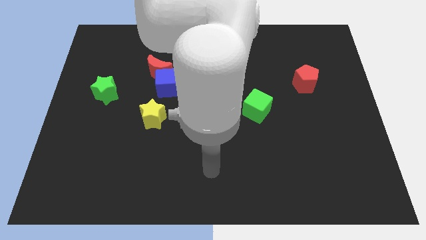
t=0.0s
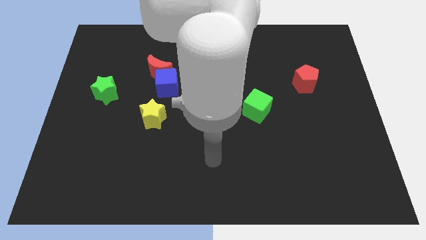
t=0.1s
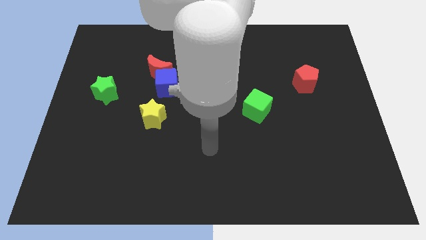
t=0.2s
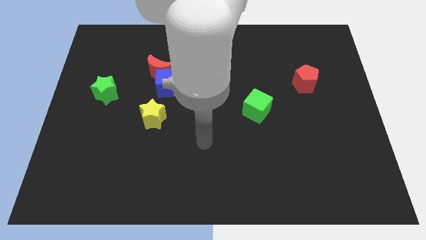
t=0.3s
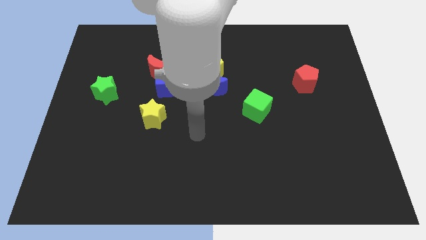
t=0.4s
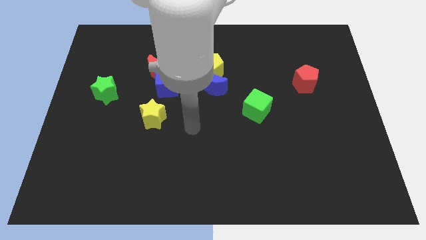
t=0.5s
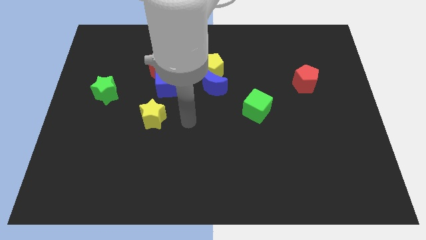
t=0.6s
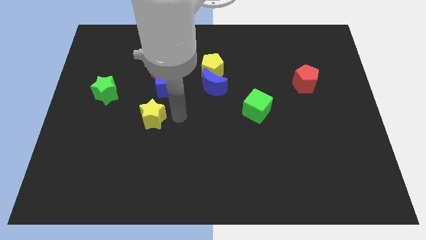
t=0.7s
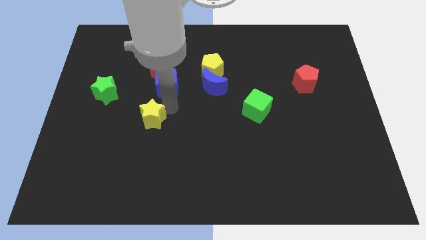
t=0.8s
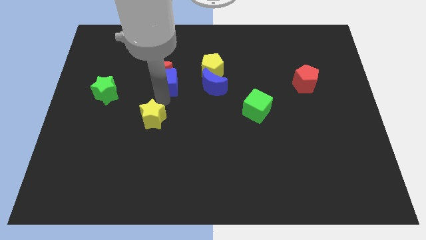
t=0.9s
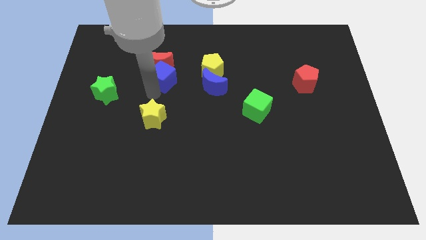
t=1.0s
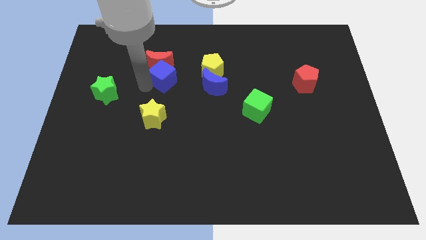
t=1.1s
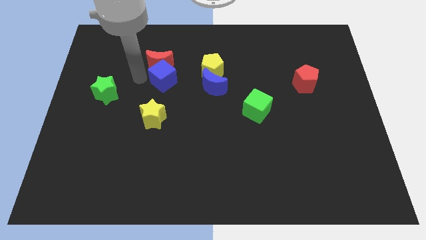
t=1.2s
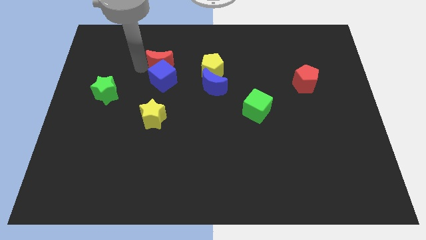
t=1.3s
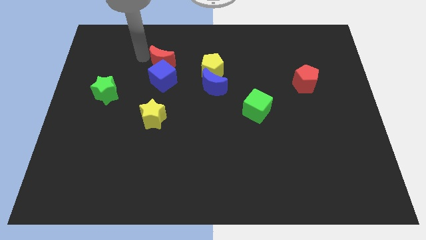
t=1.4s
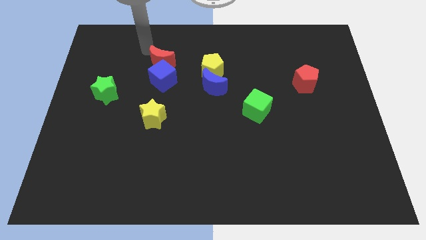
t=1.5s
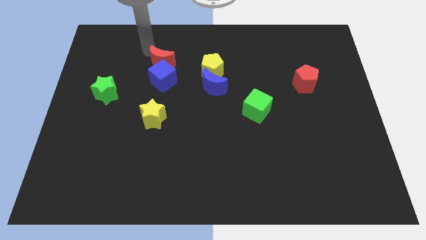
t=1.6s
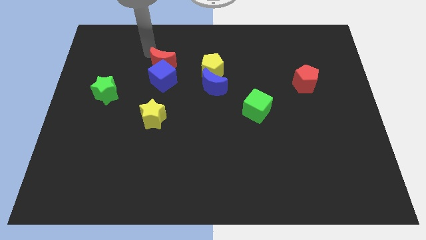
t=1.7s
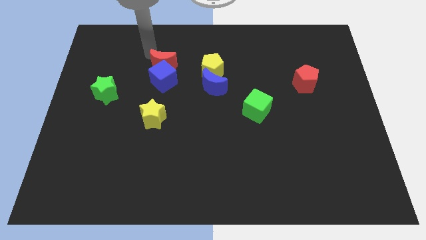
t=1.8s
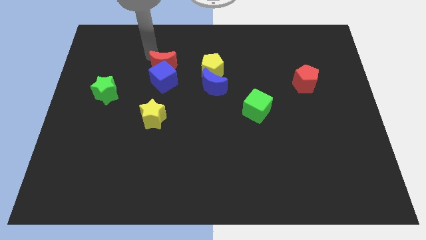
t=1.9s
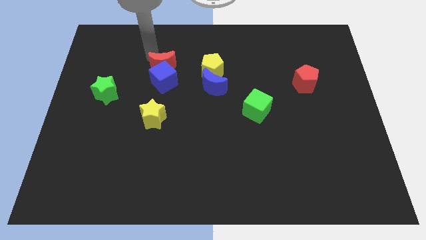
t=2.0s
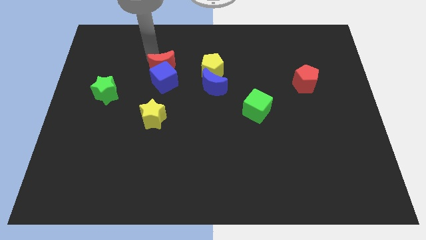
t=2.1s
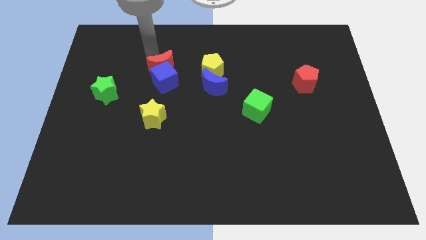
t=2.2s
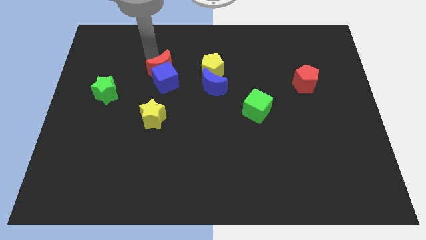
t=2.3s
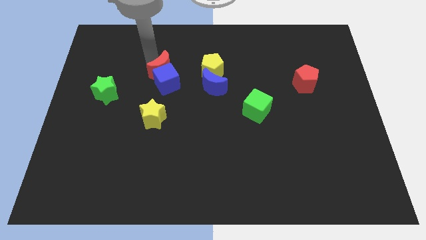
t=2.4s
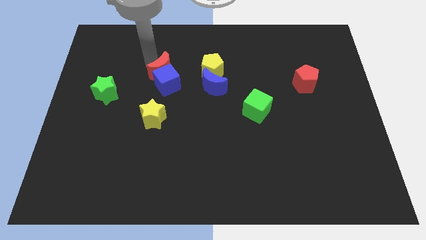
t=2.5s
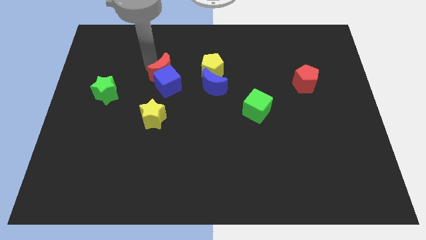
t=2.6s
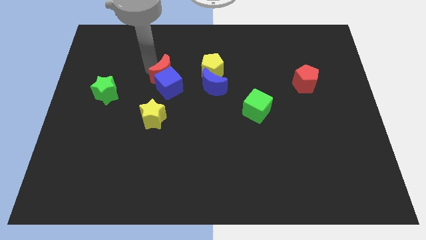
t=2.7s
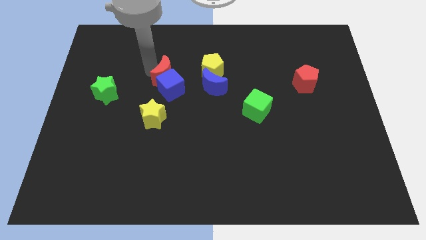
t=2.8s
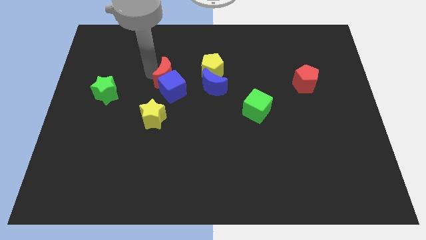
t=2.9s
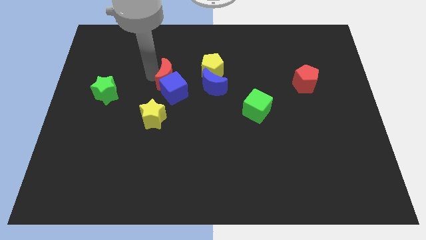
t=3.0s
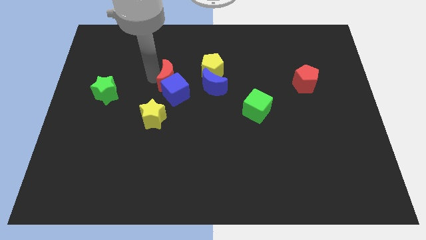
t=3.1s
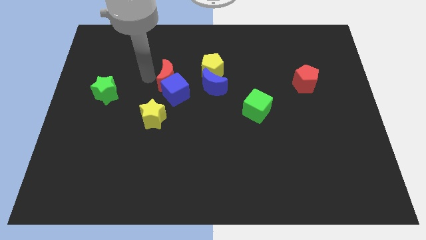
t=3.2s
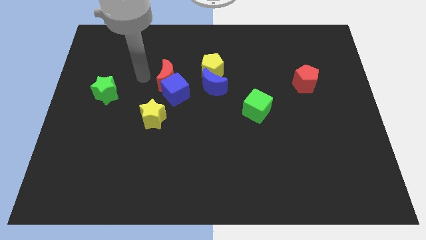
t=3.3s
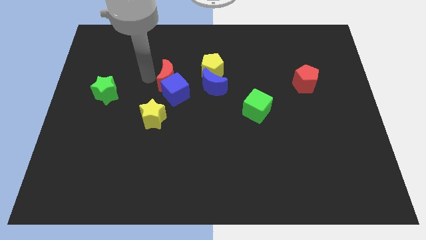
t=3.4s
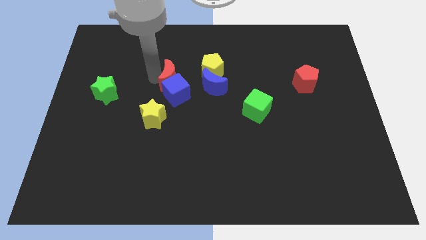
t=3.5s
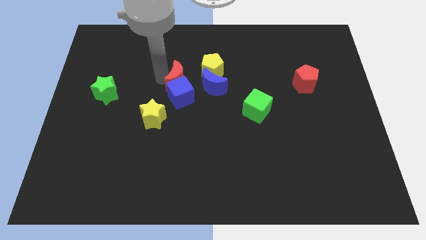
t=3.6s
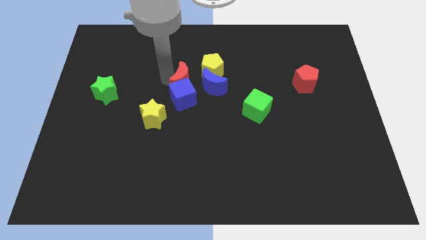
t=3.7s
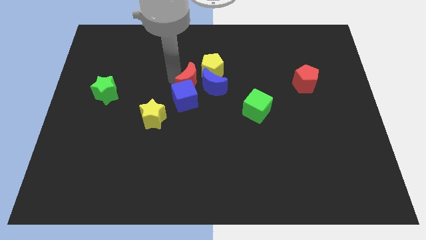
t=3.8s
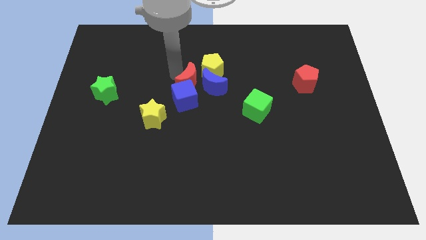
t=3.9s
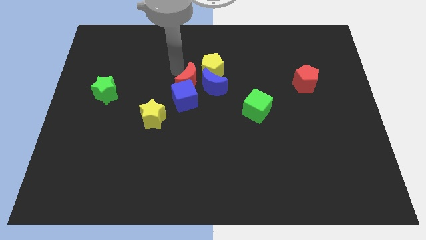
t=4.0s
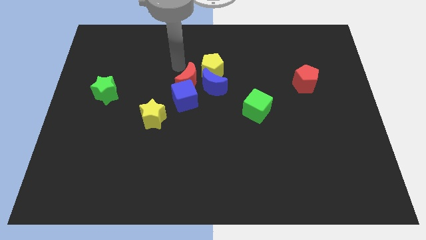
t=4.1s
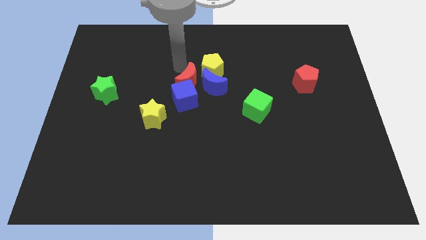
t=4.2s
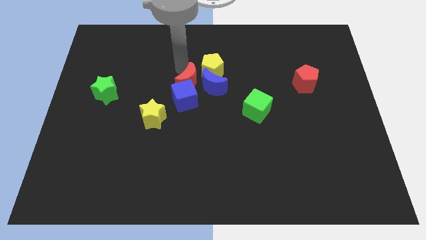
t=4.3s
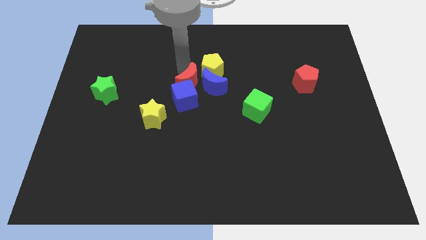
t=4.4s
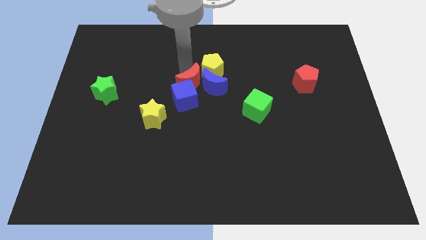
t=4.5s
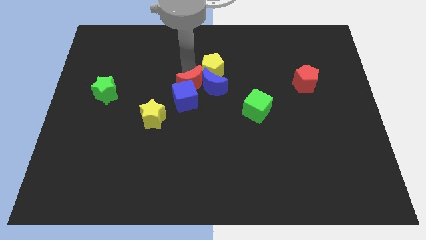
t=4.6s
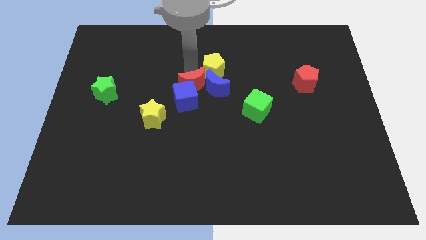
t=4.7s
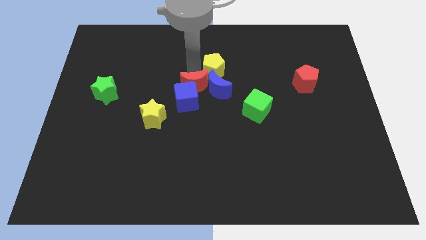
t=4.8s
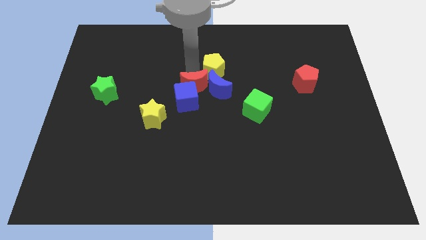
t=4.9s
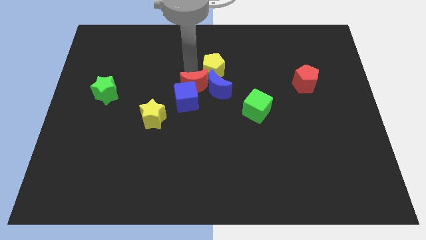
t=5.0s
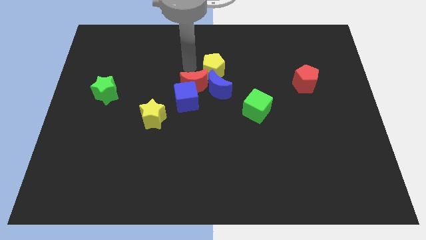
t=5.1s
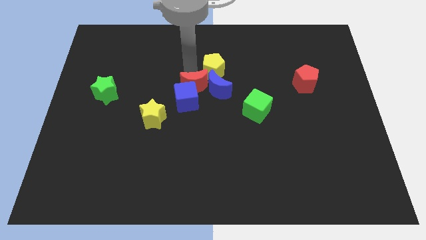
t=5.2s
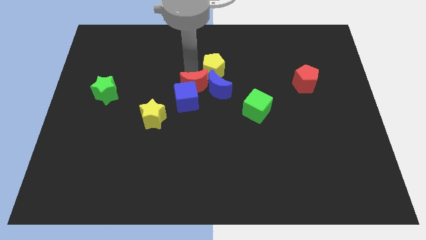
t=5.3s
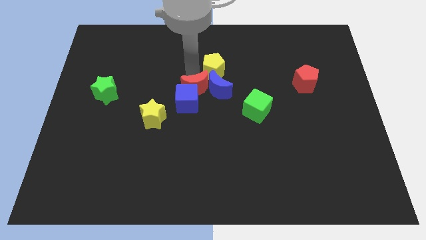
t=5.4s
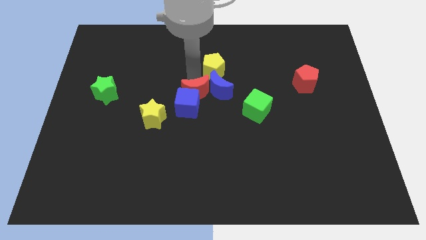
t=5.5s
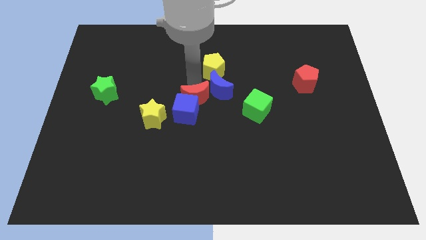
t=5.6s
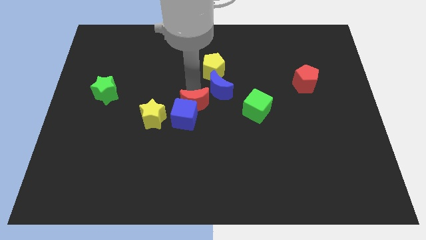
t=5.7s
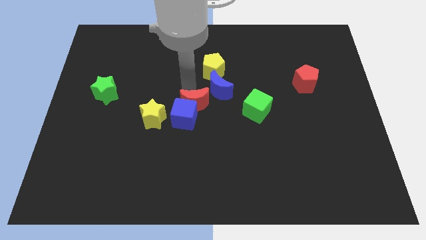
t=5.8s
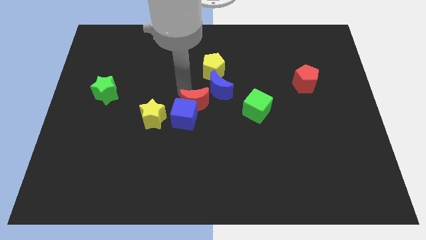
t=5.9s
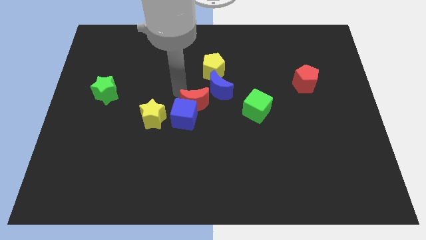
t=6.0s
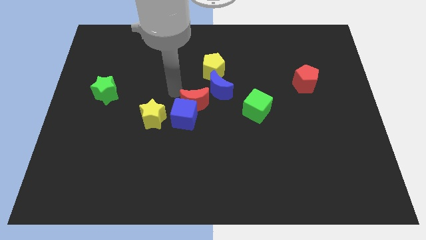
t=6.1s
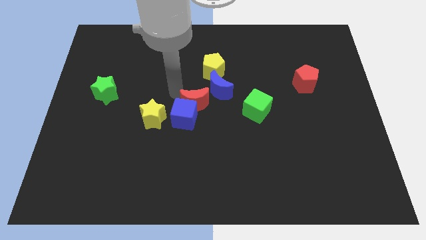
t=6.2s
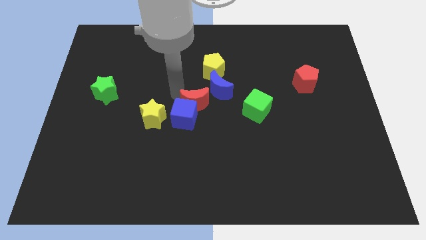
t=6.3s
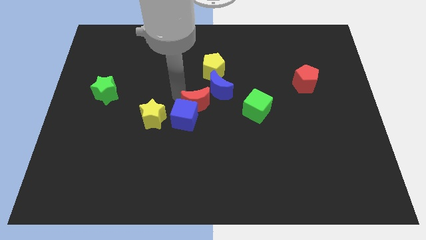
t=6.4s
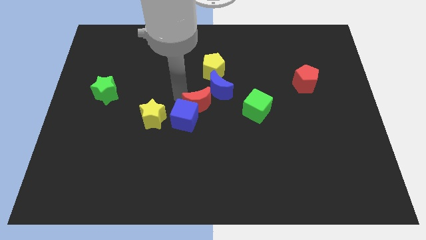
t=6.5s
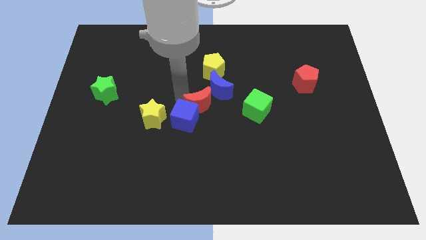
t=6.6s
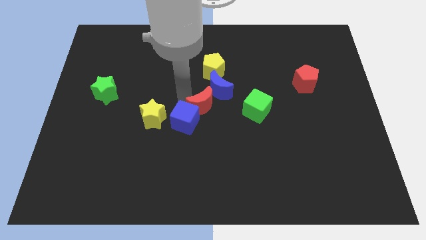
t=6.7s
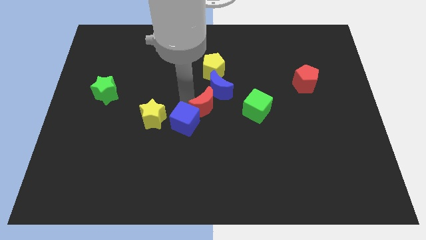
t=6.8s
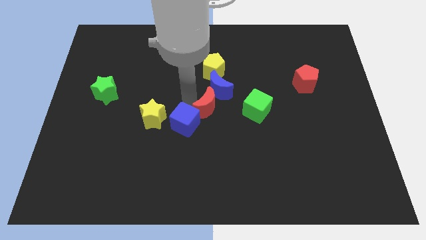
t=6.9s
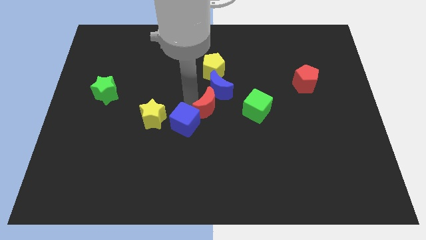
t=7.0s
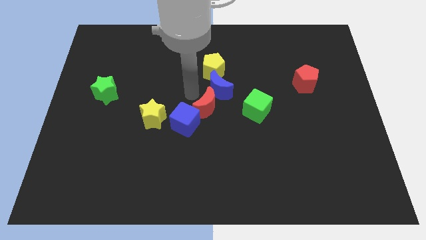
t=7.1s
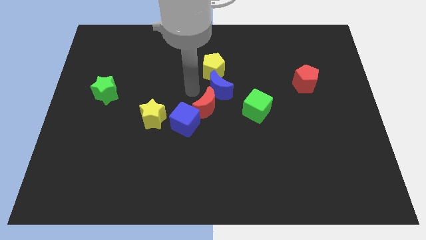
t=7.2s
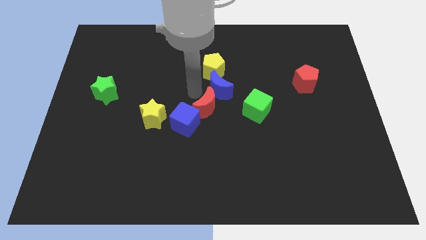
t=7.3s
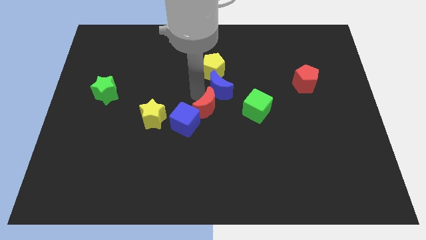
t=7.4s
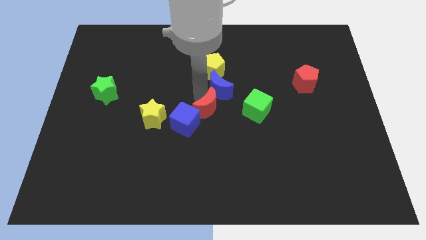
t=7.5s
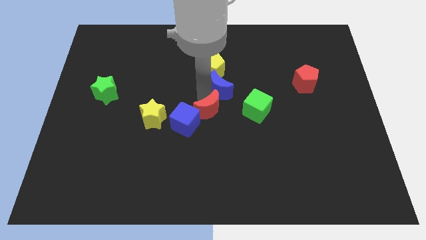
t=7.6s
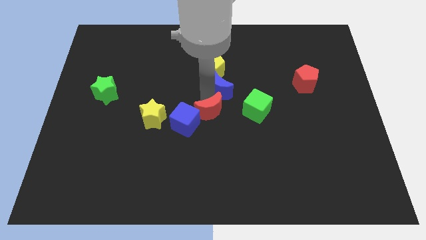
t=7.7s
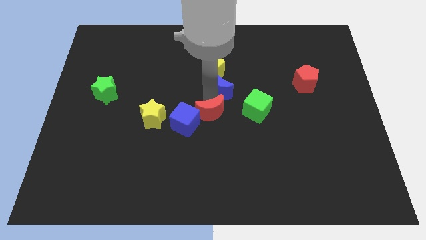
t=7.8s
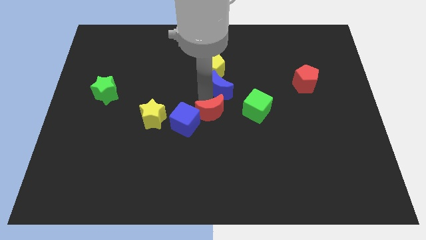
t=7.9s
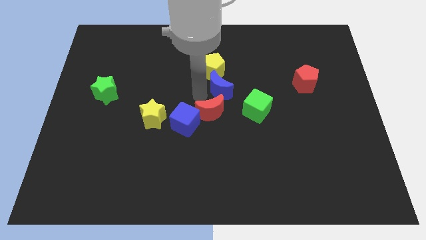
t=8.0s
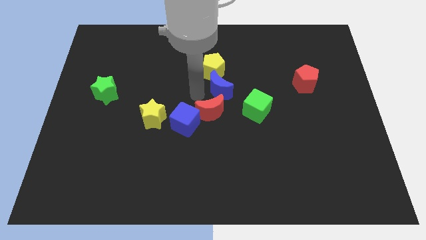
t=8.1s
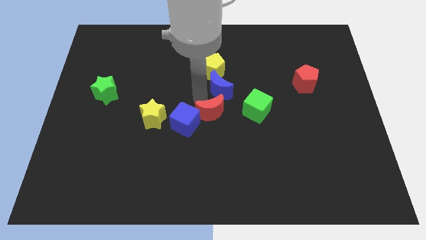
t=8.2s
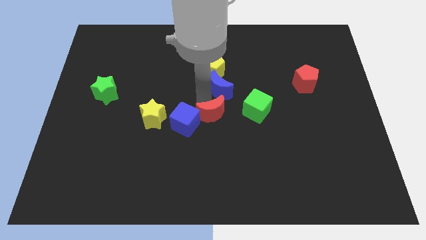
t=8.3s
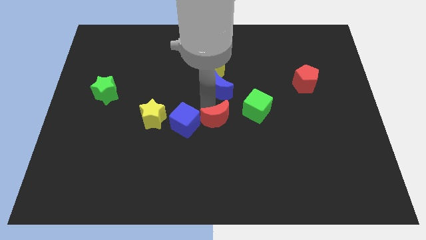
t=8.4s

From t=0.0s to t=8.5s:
move the red moon diagonally downwards and to the right
